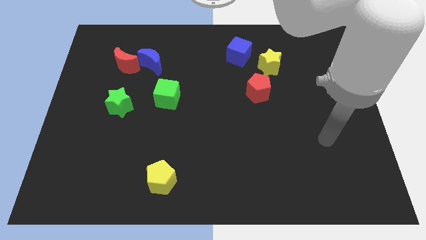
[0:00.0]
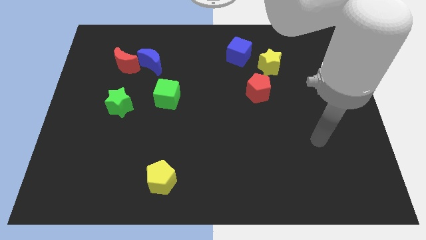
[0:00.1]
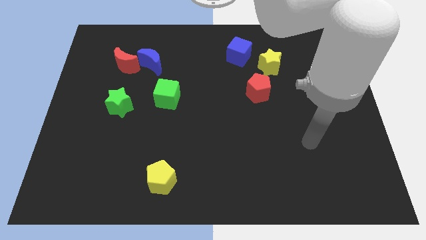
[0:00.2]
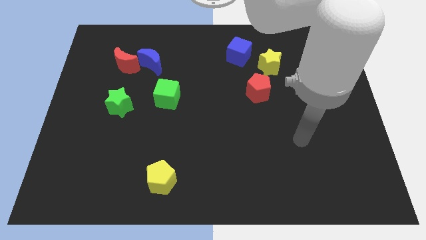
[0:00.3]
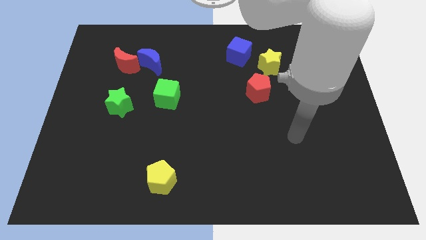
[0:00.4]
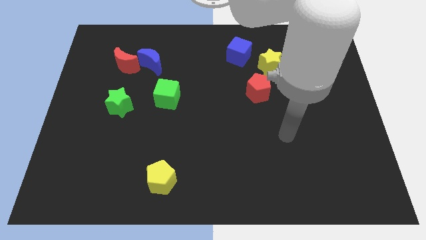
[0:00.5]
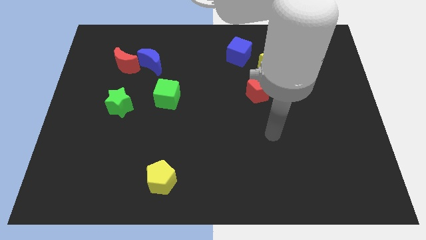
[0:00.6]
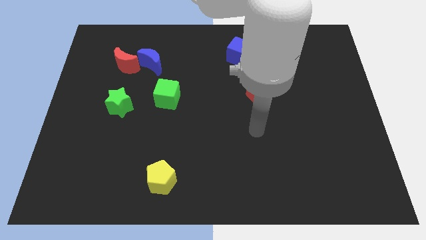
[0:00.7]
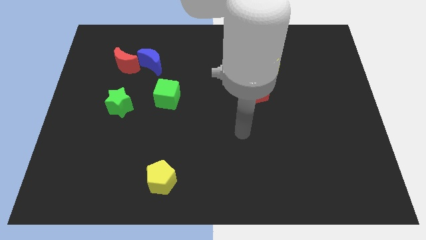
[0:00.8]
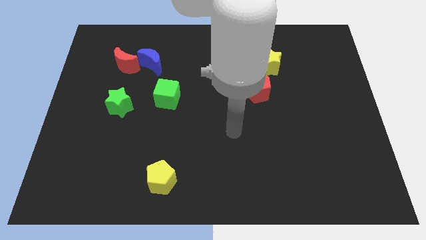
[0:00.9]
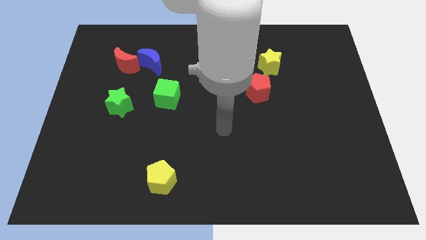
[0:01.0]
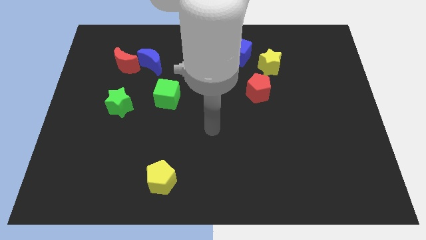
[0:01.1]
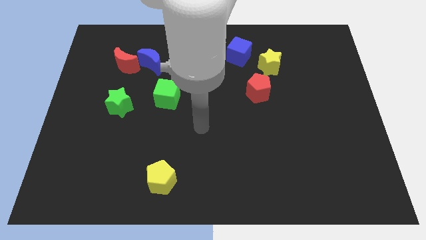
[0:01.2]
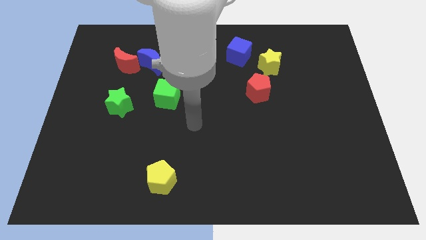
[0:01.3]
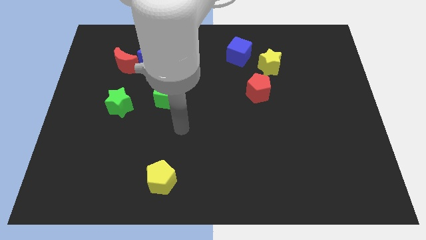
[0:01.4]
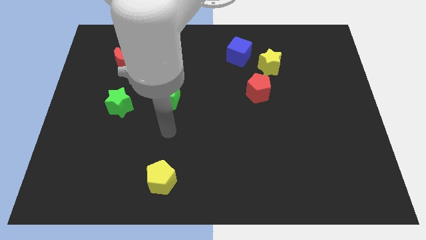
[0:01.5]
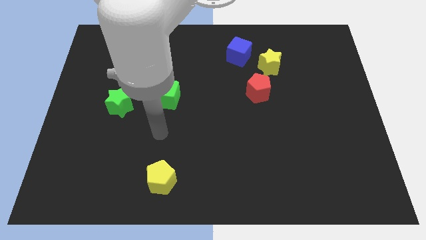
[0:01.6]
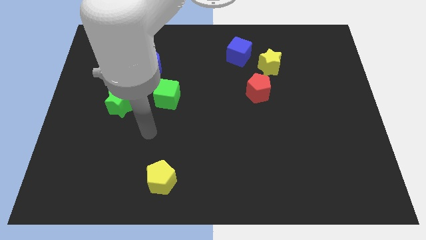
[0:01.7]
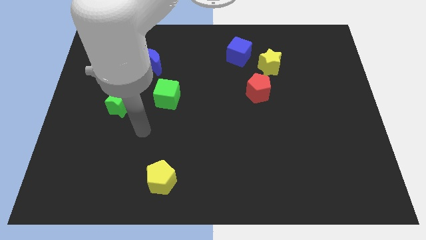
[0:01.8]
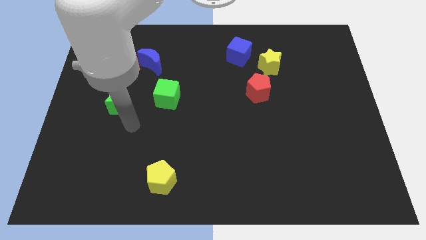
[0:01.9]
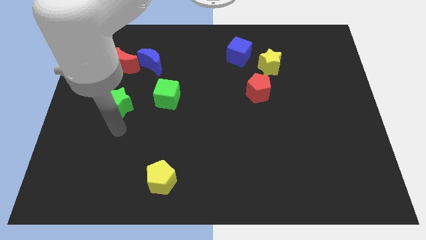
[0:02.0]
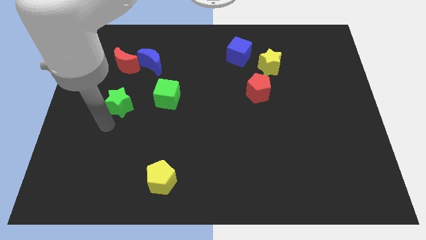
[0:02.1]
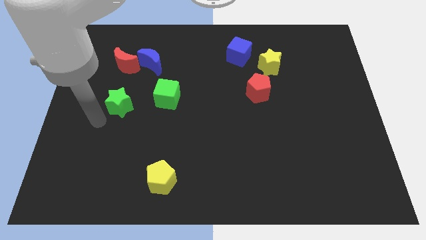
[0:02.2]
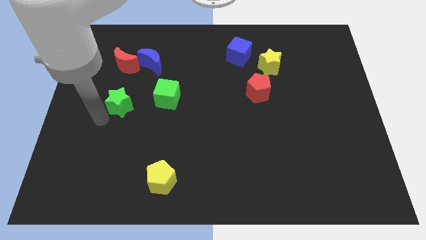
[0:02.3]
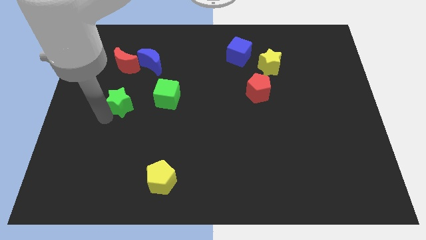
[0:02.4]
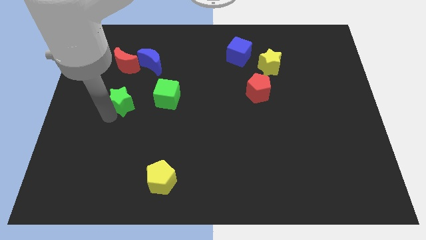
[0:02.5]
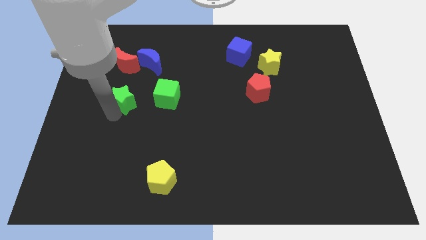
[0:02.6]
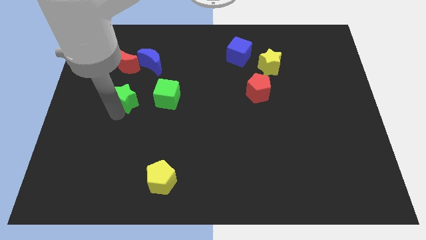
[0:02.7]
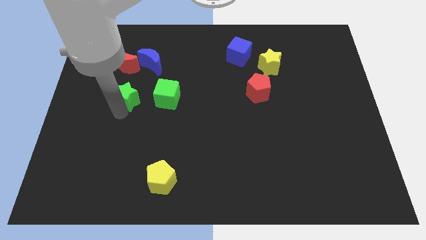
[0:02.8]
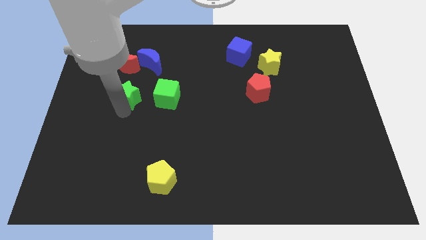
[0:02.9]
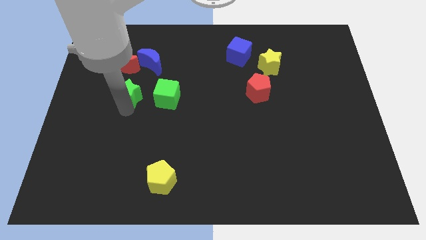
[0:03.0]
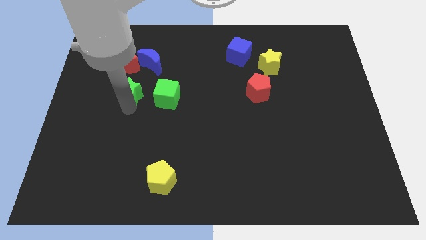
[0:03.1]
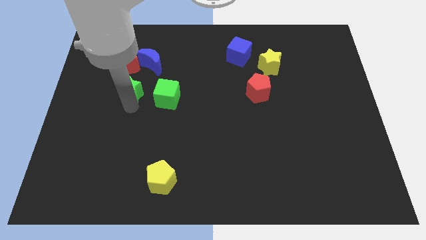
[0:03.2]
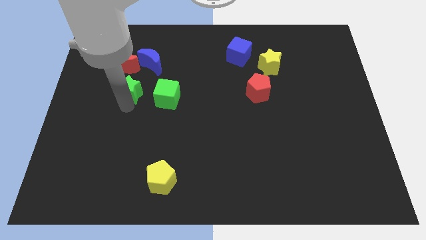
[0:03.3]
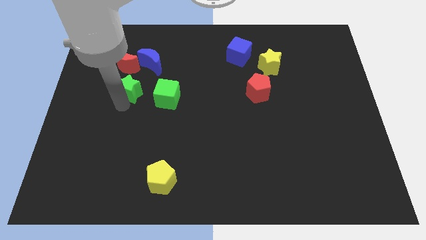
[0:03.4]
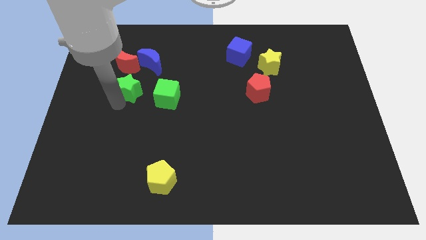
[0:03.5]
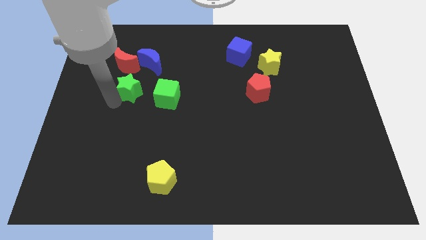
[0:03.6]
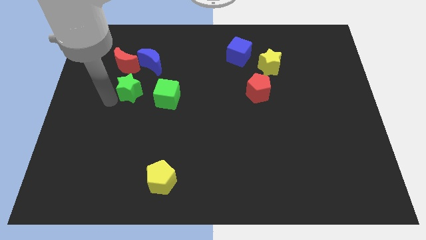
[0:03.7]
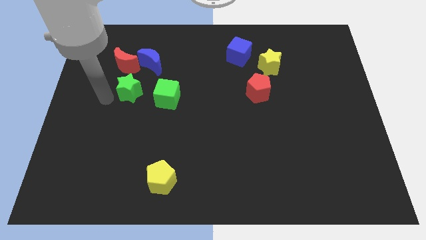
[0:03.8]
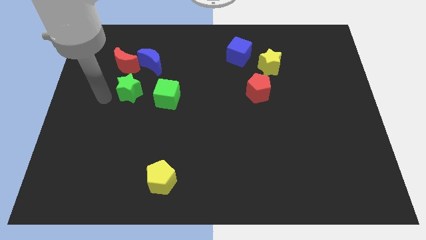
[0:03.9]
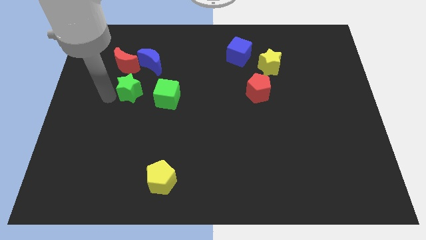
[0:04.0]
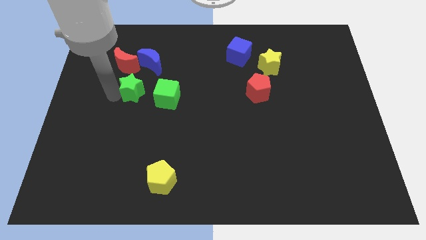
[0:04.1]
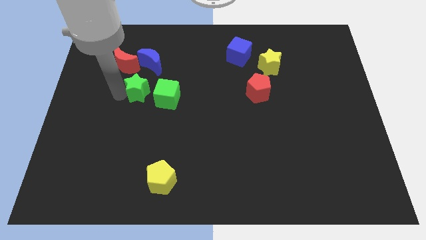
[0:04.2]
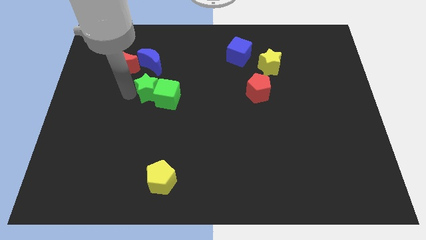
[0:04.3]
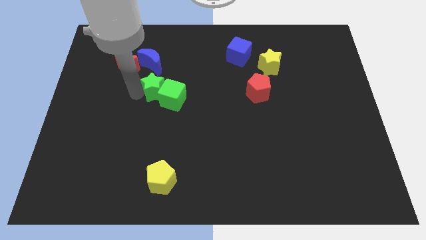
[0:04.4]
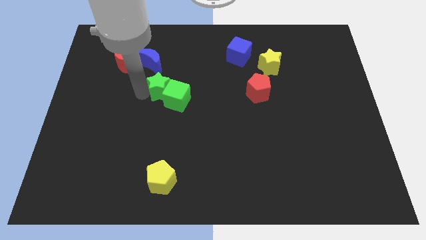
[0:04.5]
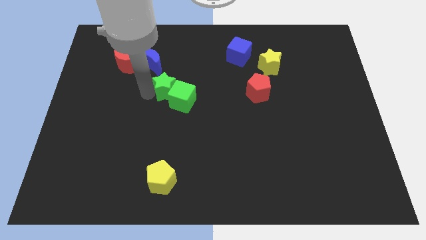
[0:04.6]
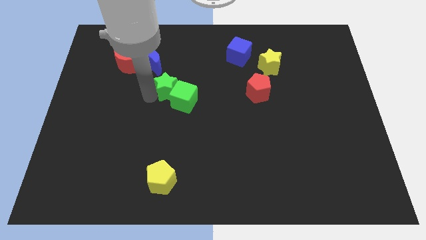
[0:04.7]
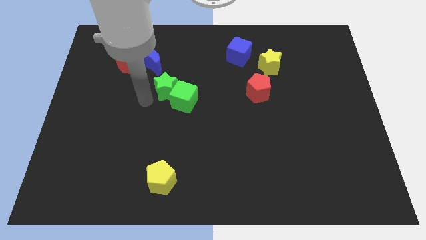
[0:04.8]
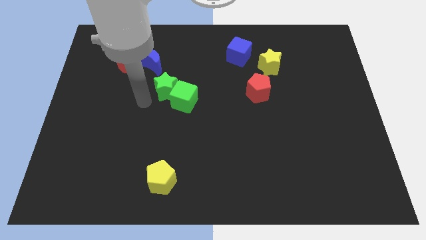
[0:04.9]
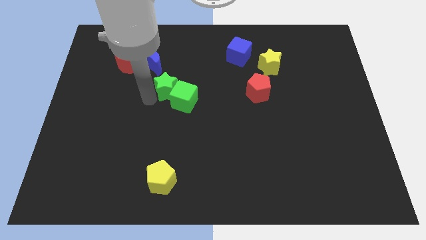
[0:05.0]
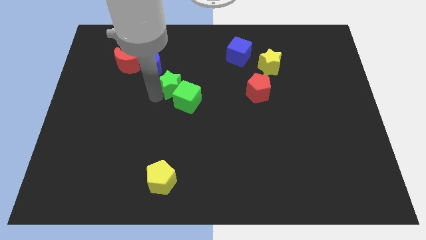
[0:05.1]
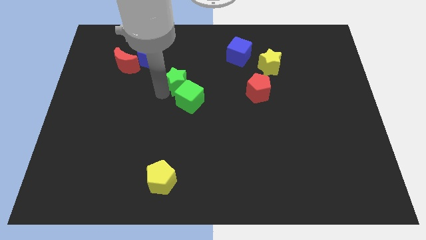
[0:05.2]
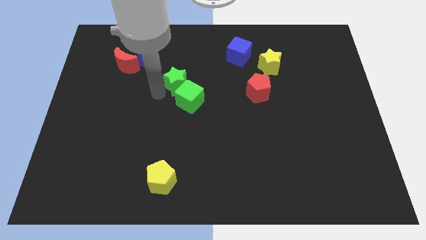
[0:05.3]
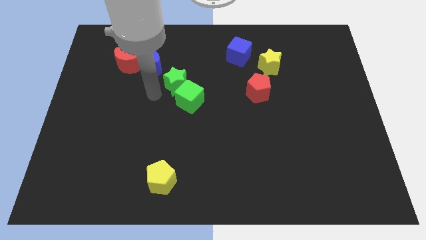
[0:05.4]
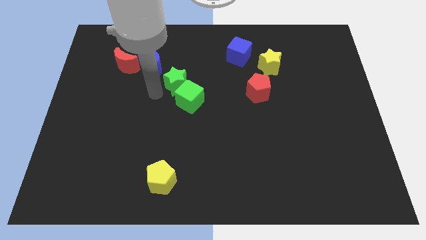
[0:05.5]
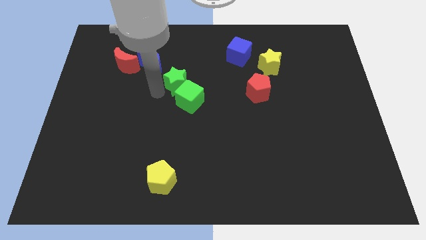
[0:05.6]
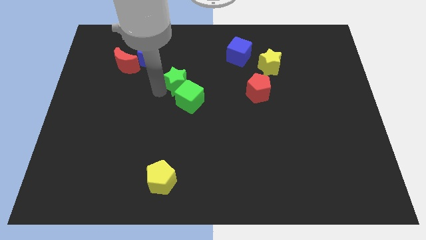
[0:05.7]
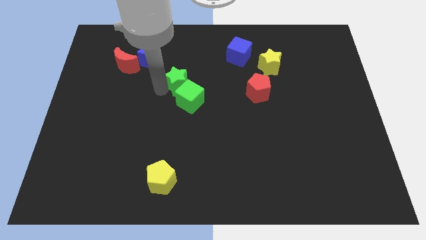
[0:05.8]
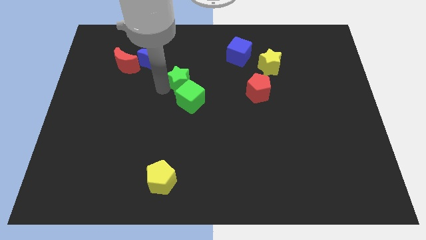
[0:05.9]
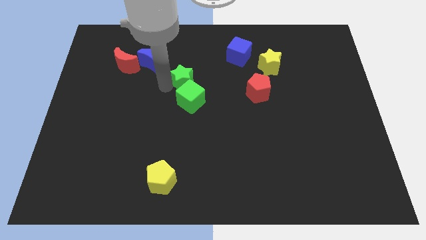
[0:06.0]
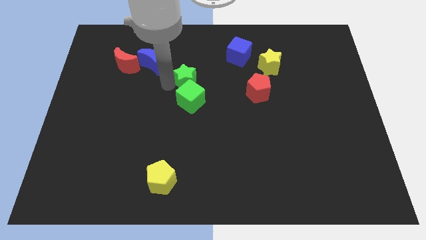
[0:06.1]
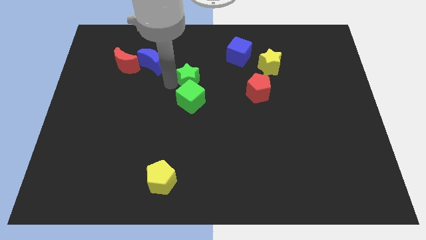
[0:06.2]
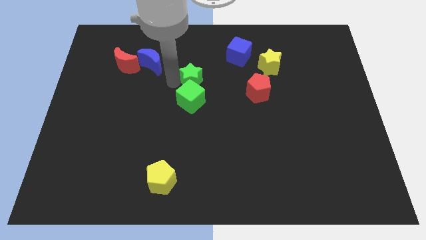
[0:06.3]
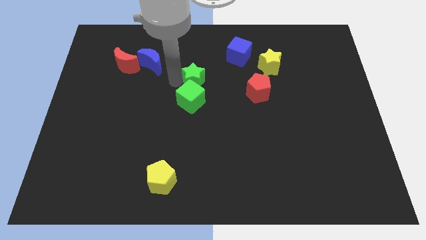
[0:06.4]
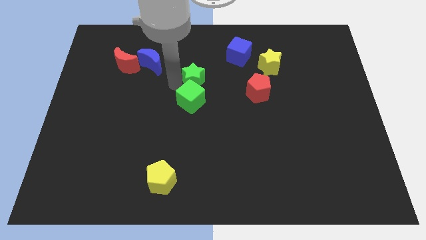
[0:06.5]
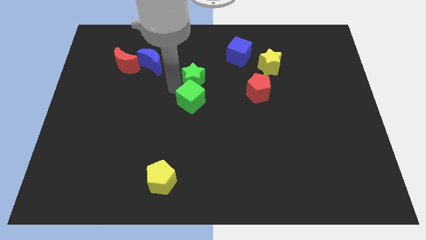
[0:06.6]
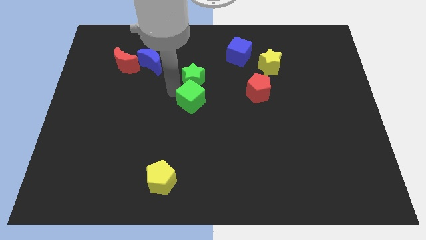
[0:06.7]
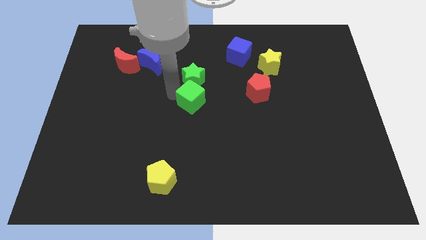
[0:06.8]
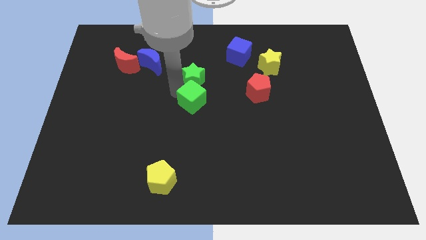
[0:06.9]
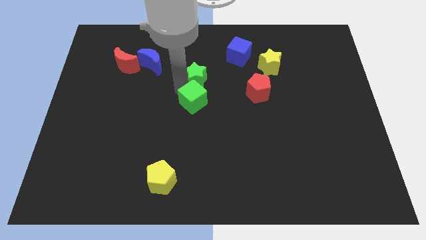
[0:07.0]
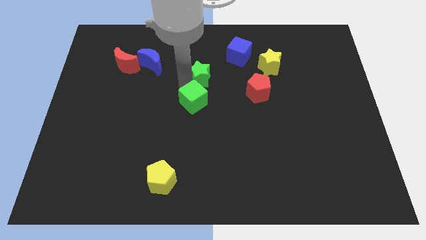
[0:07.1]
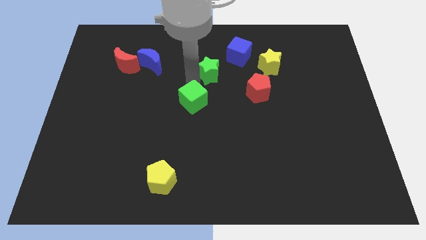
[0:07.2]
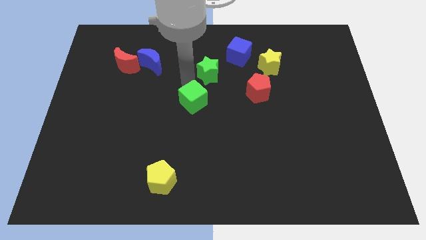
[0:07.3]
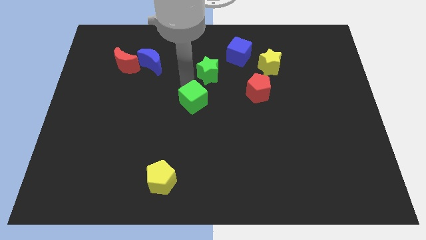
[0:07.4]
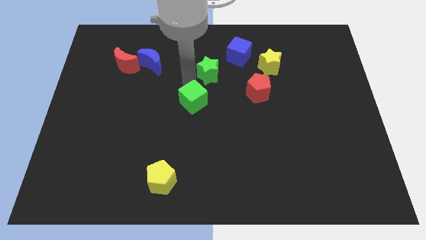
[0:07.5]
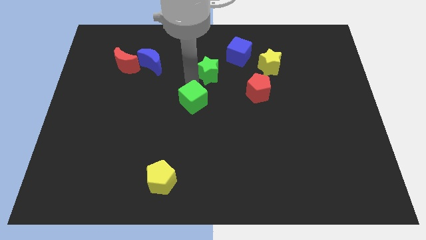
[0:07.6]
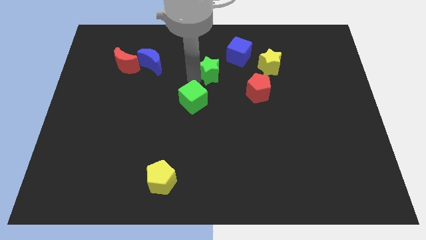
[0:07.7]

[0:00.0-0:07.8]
put the green star left of the yellow star
